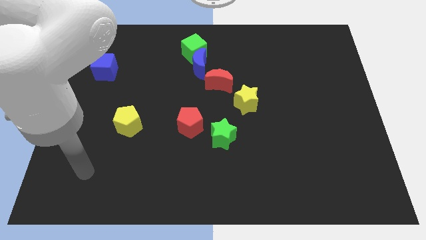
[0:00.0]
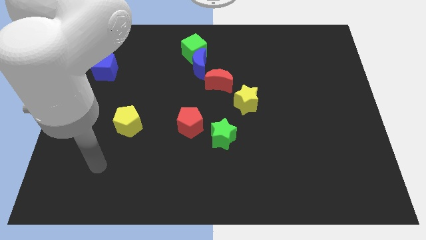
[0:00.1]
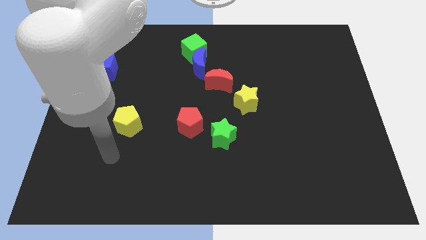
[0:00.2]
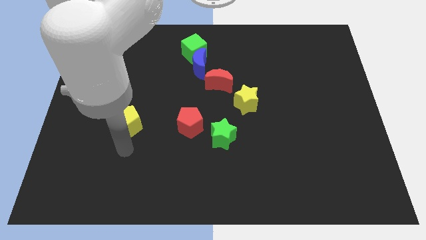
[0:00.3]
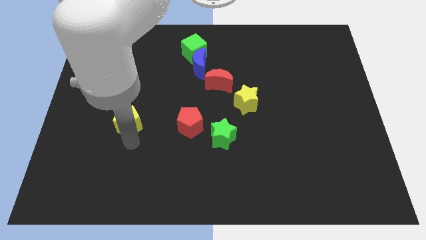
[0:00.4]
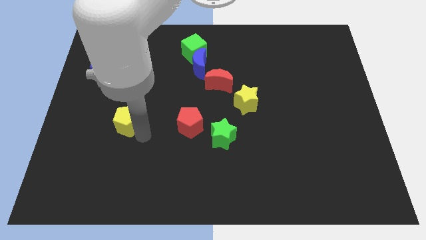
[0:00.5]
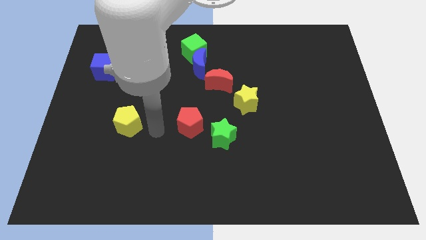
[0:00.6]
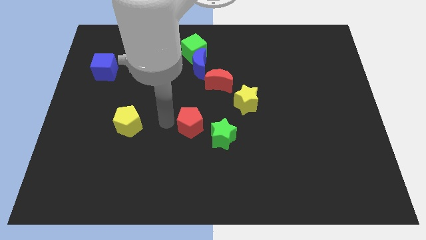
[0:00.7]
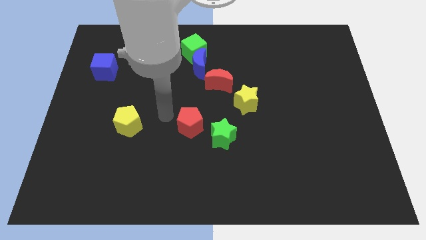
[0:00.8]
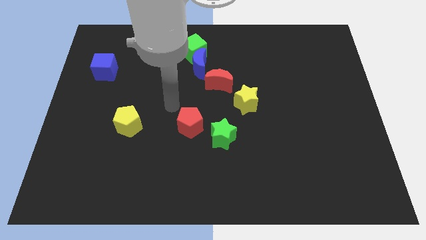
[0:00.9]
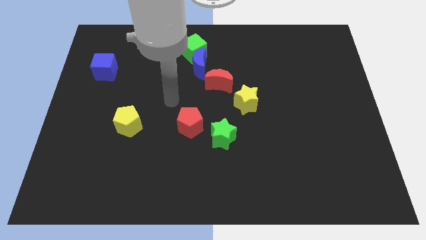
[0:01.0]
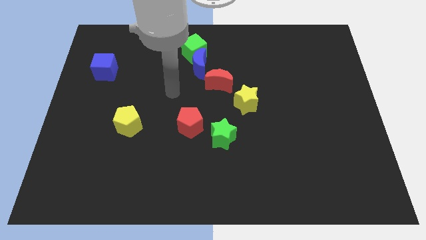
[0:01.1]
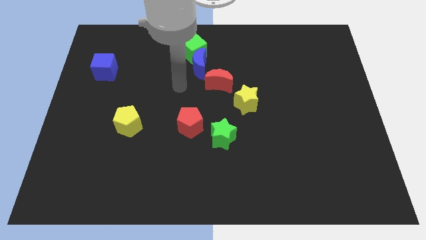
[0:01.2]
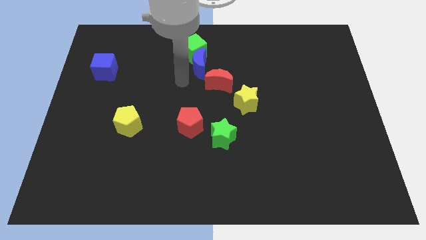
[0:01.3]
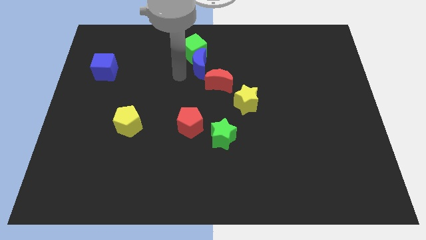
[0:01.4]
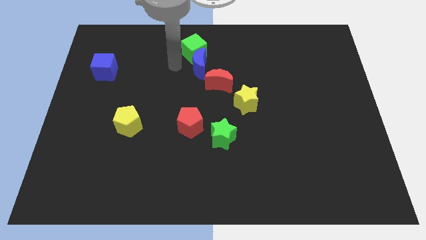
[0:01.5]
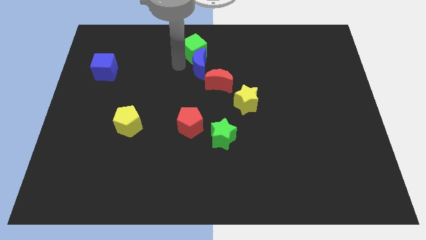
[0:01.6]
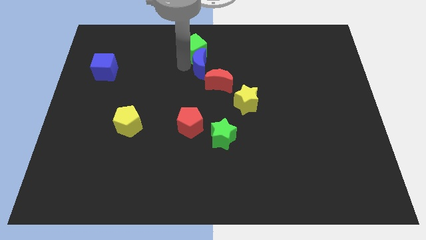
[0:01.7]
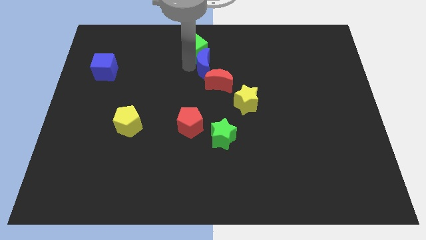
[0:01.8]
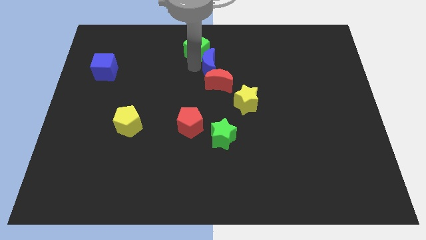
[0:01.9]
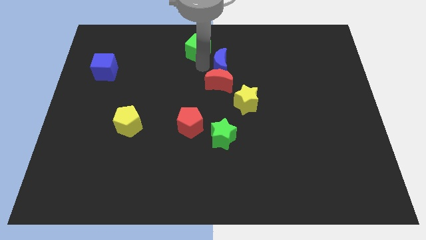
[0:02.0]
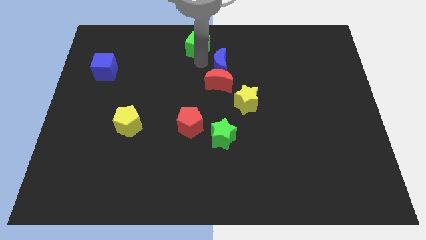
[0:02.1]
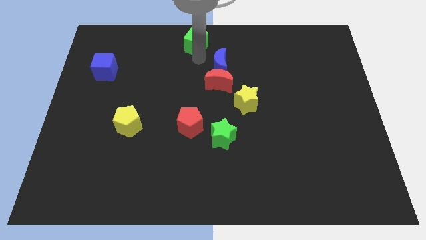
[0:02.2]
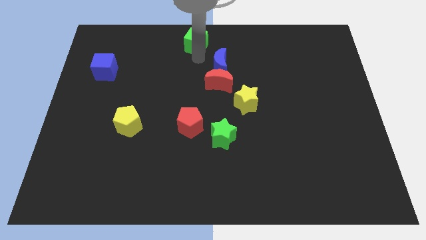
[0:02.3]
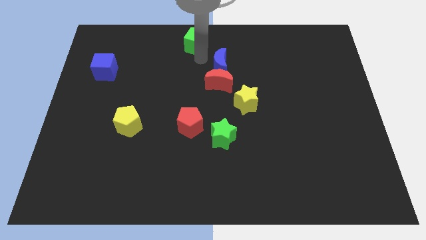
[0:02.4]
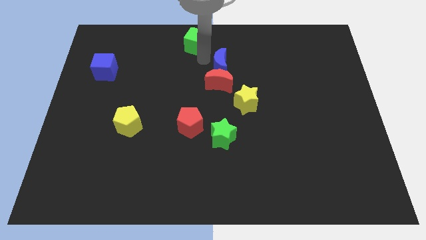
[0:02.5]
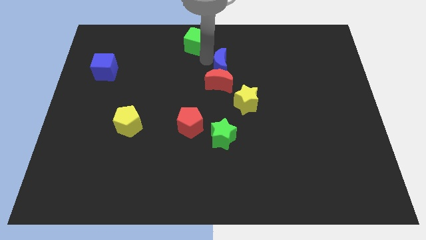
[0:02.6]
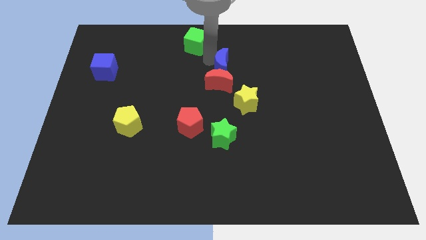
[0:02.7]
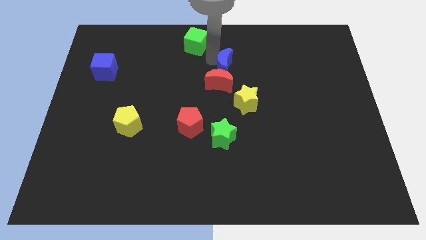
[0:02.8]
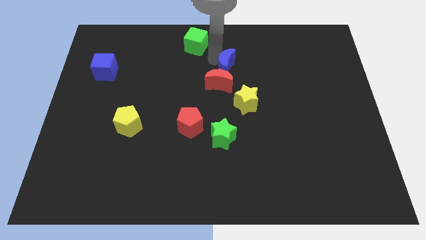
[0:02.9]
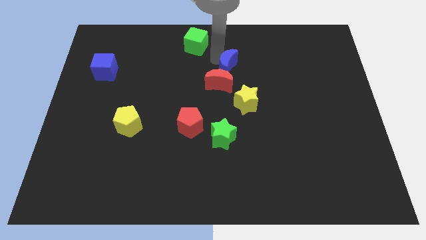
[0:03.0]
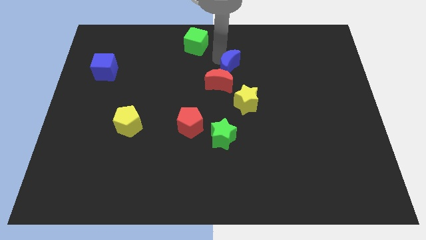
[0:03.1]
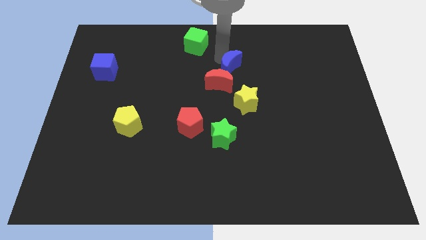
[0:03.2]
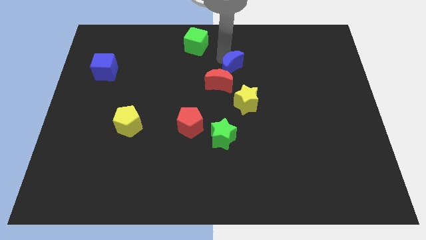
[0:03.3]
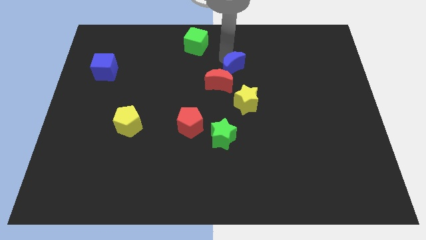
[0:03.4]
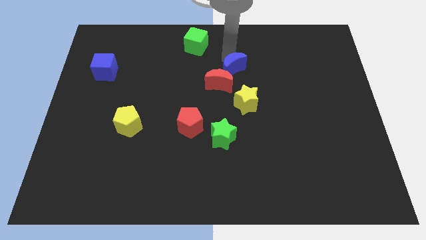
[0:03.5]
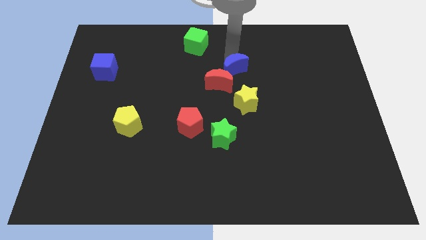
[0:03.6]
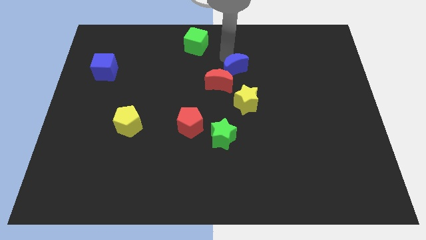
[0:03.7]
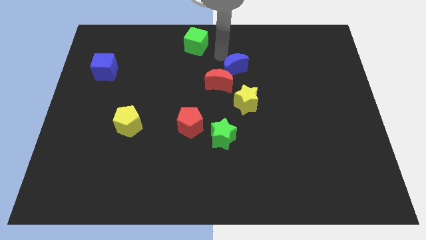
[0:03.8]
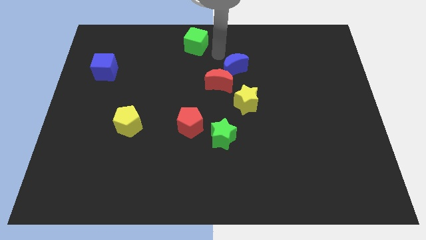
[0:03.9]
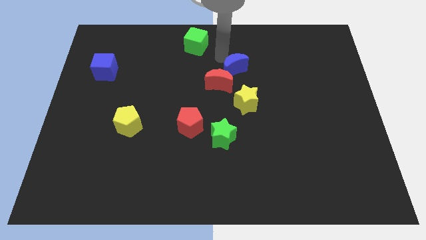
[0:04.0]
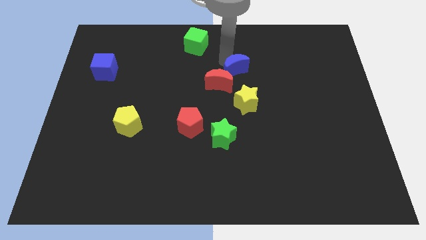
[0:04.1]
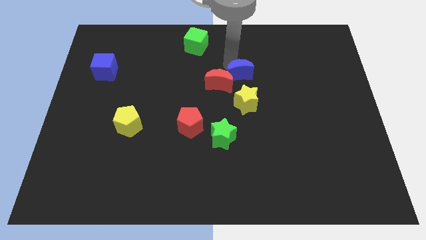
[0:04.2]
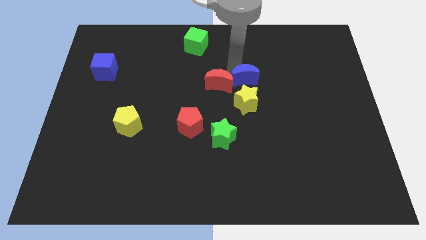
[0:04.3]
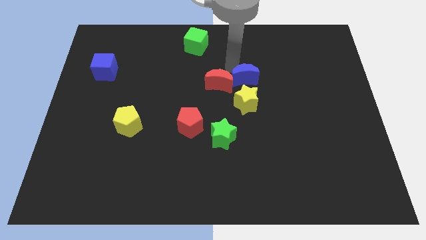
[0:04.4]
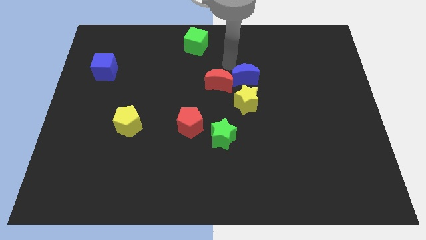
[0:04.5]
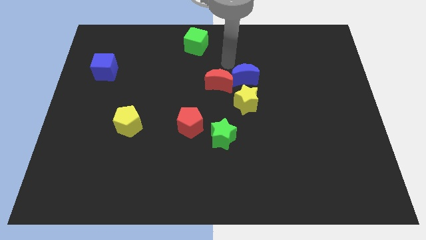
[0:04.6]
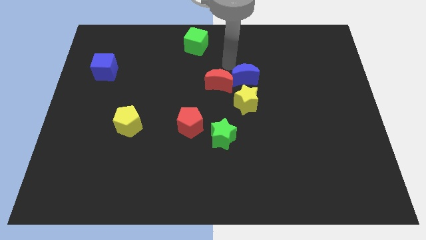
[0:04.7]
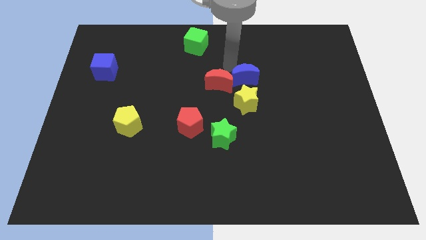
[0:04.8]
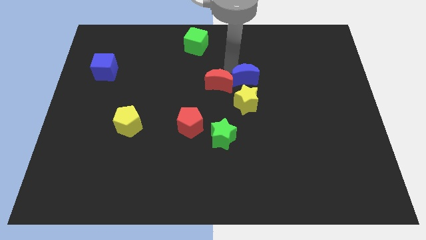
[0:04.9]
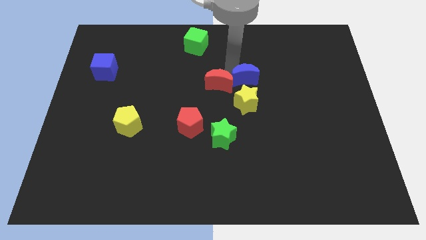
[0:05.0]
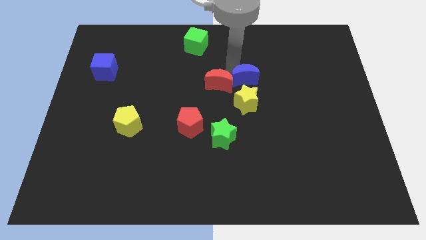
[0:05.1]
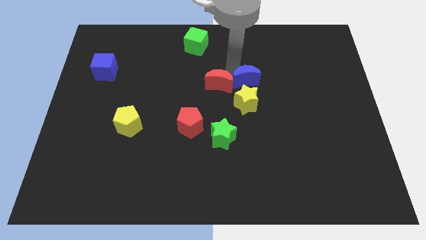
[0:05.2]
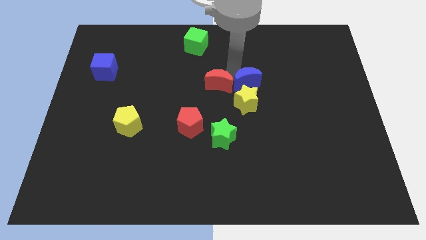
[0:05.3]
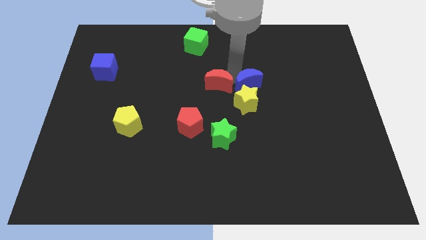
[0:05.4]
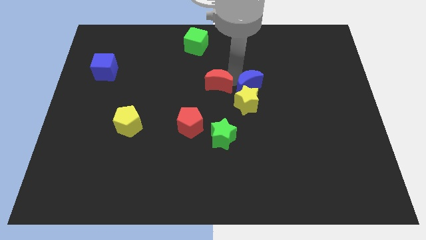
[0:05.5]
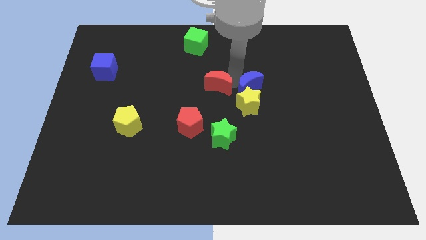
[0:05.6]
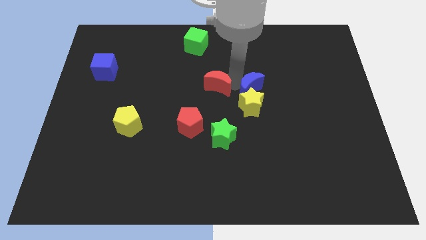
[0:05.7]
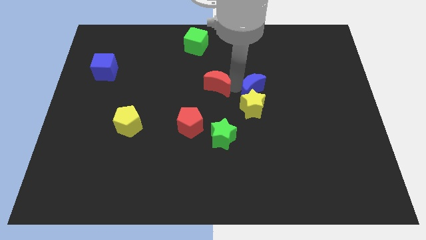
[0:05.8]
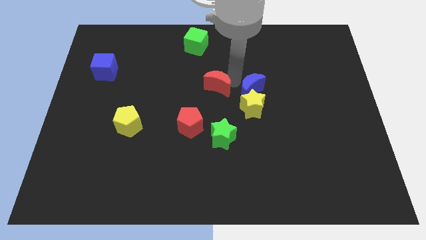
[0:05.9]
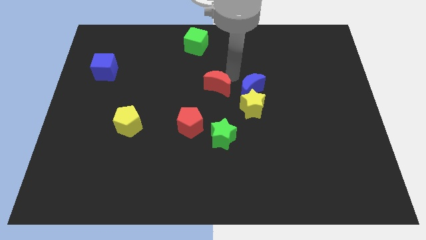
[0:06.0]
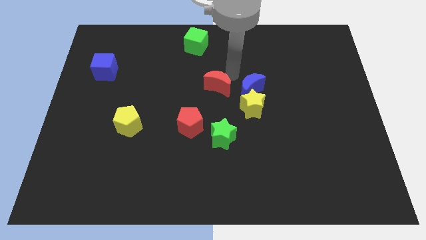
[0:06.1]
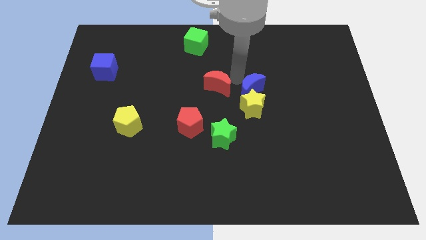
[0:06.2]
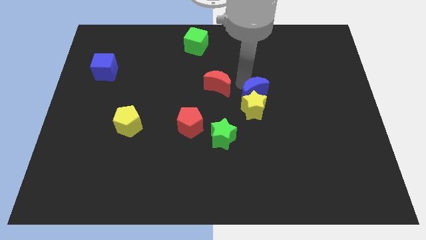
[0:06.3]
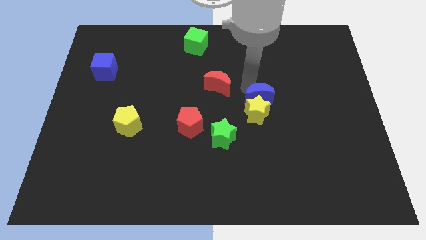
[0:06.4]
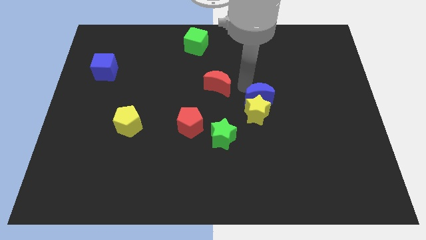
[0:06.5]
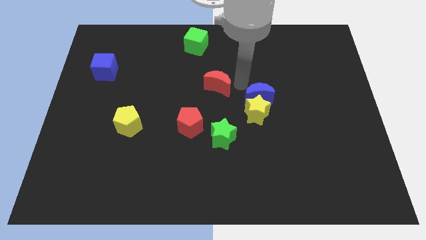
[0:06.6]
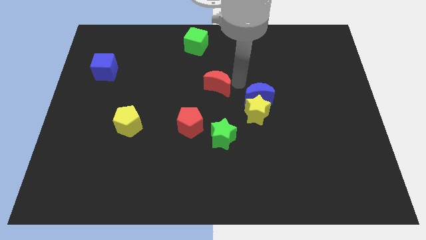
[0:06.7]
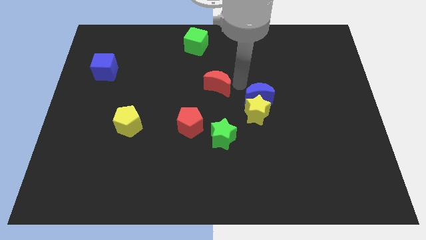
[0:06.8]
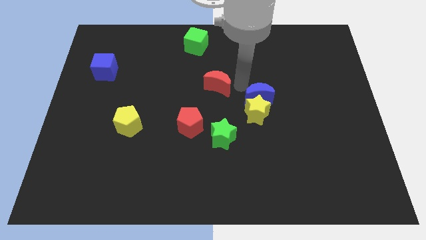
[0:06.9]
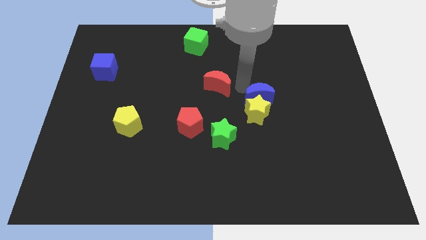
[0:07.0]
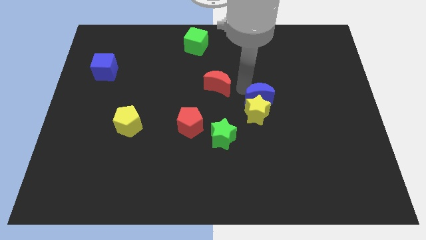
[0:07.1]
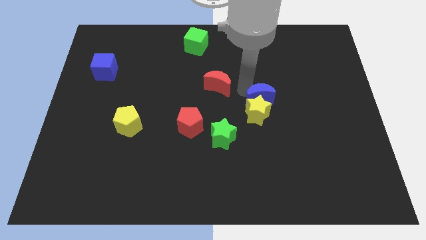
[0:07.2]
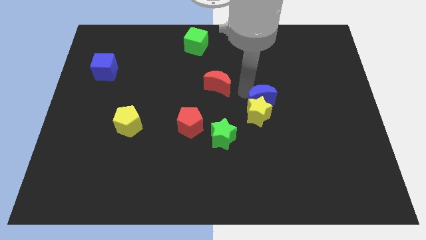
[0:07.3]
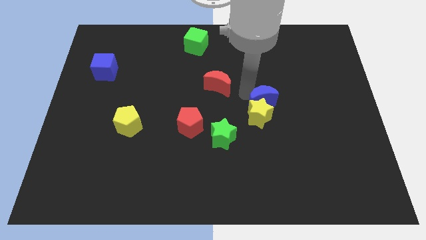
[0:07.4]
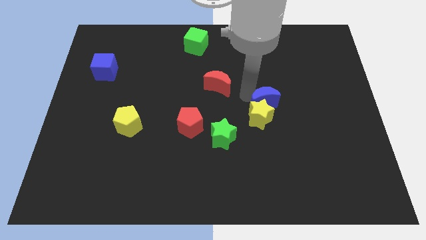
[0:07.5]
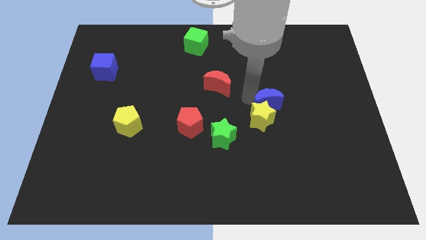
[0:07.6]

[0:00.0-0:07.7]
push the blue moon downwards and to the right diagonally
